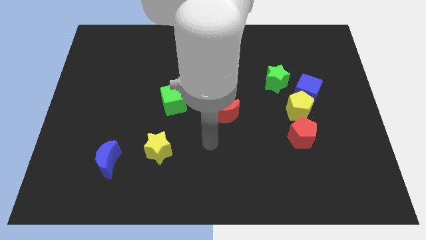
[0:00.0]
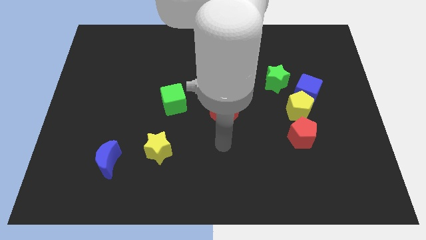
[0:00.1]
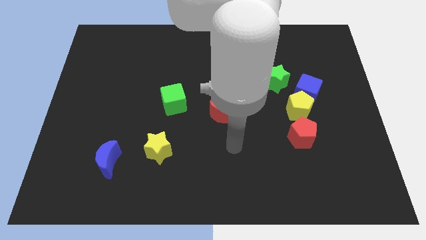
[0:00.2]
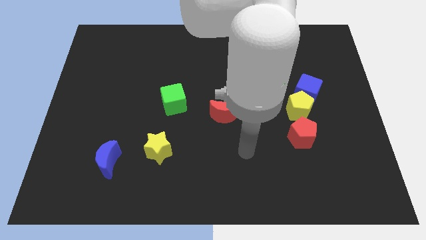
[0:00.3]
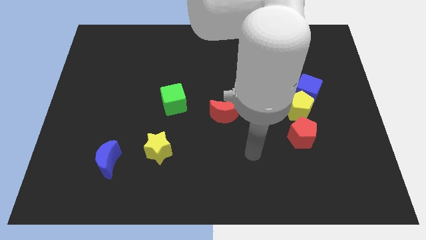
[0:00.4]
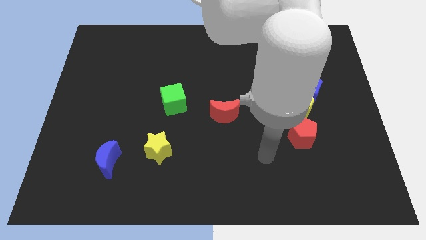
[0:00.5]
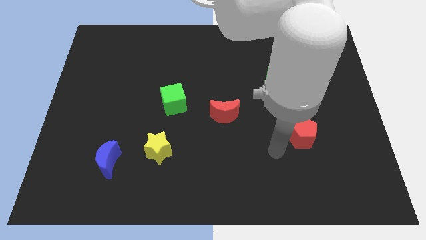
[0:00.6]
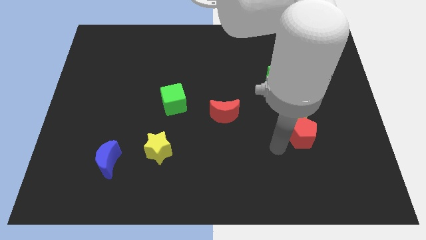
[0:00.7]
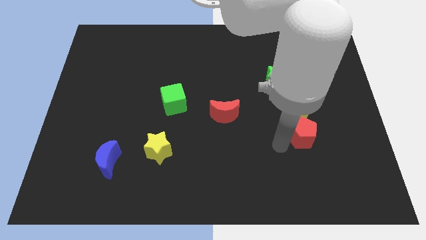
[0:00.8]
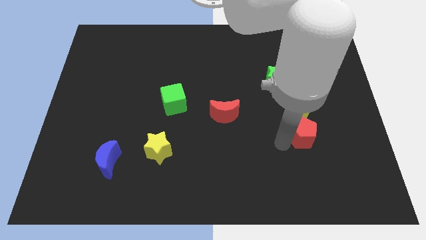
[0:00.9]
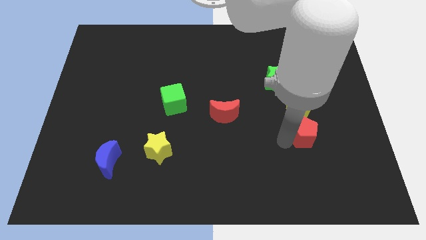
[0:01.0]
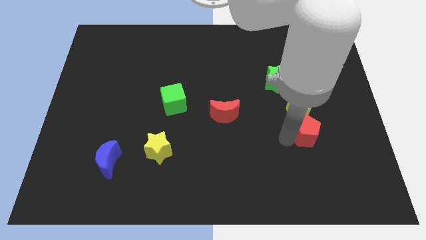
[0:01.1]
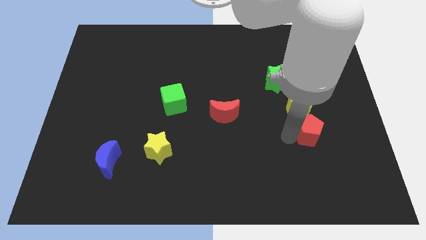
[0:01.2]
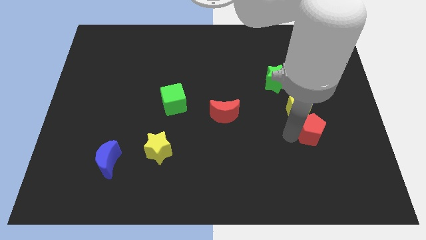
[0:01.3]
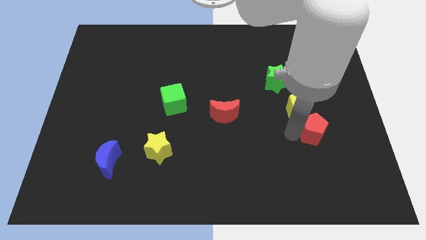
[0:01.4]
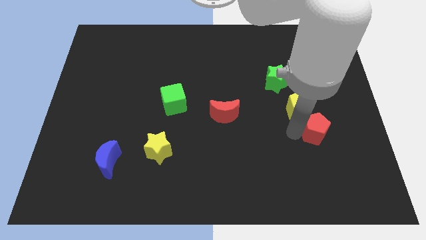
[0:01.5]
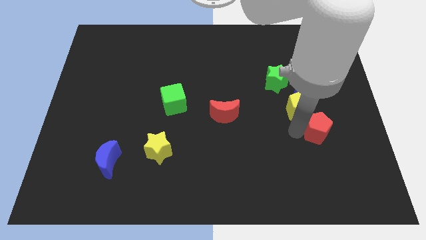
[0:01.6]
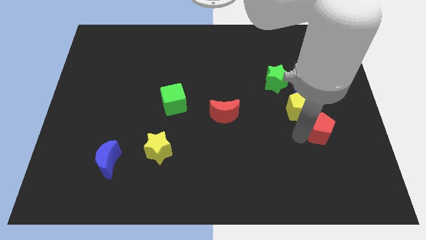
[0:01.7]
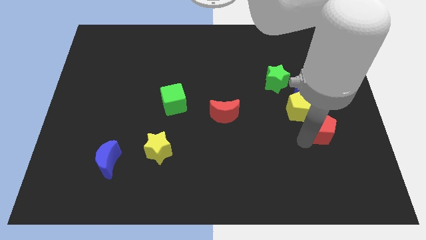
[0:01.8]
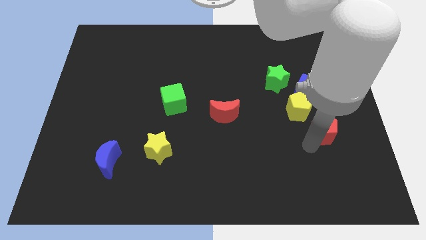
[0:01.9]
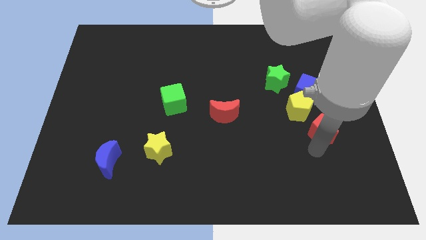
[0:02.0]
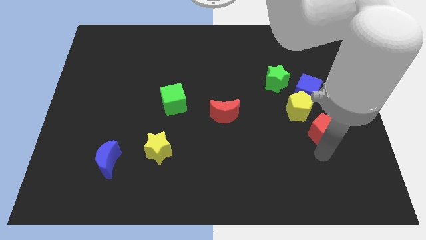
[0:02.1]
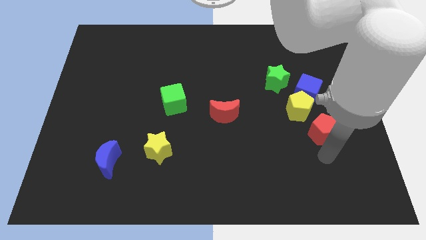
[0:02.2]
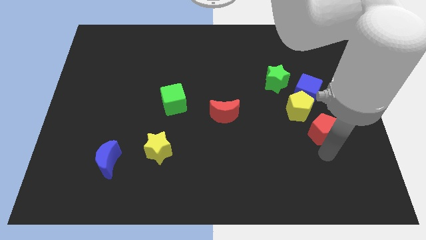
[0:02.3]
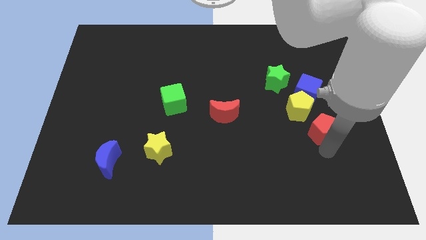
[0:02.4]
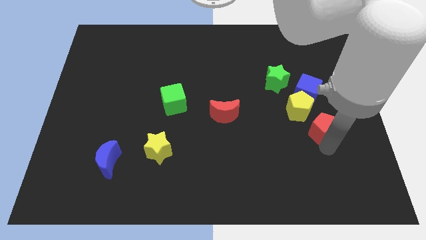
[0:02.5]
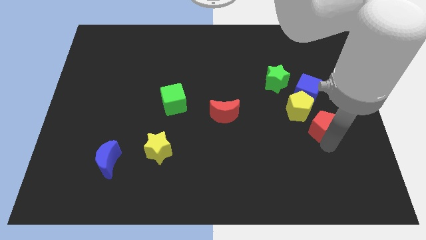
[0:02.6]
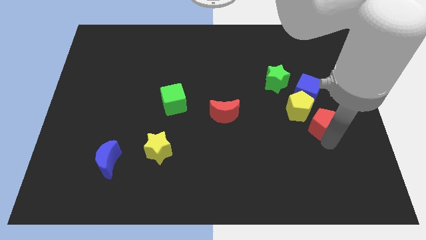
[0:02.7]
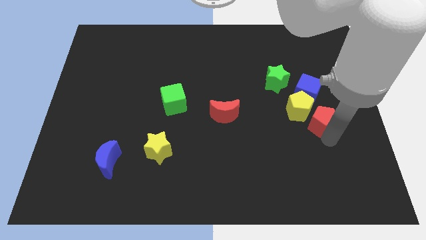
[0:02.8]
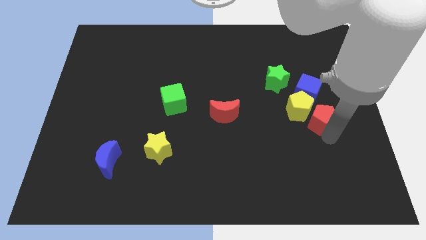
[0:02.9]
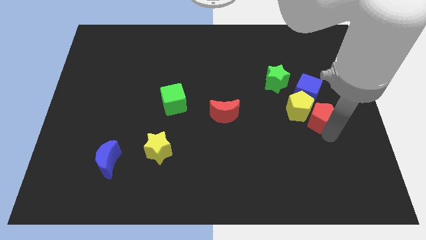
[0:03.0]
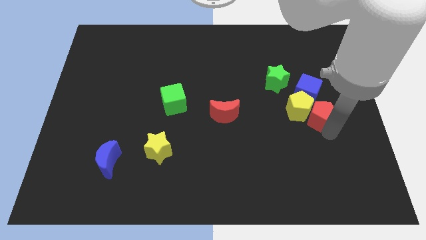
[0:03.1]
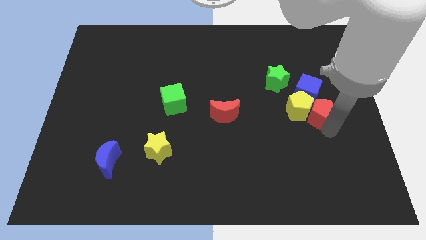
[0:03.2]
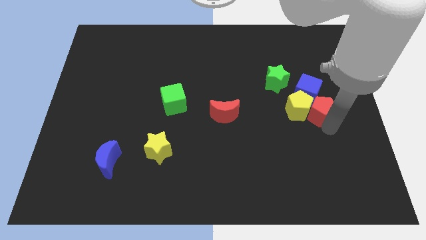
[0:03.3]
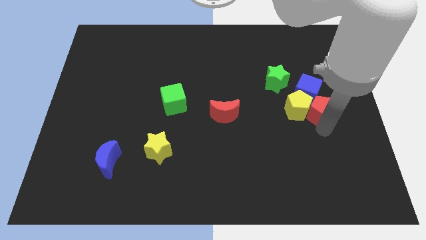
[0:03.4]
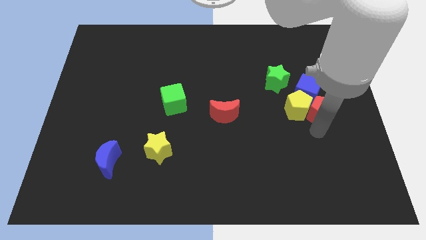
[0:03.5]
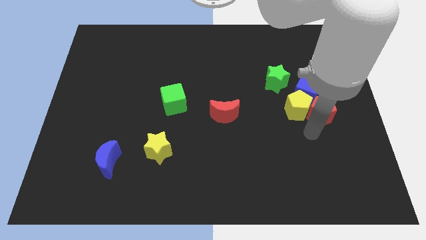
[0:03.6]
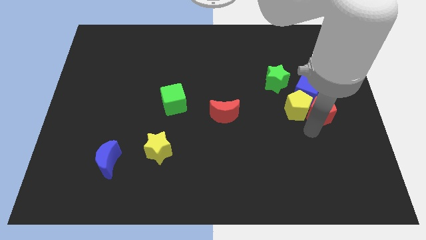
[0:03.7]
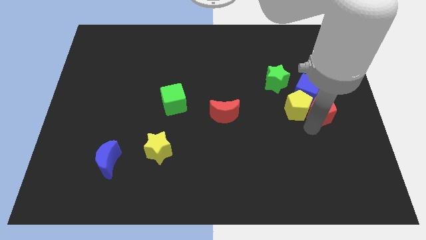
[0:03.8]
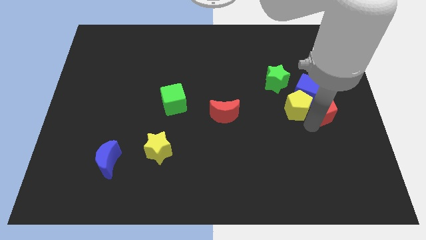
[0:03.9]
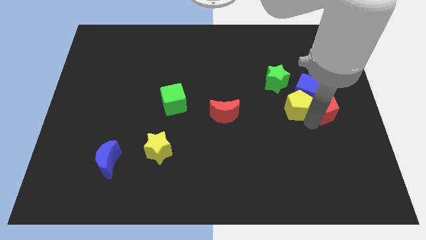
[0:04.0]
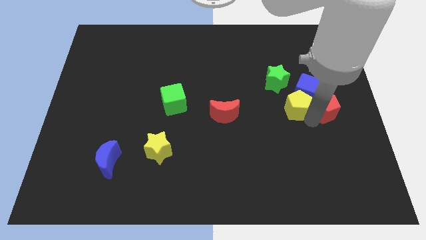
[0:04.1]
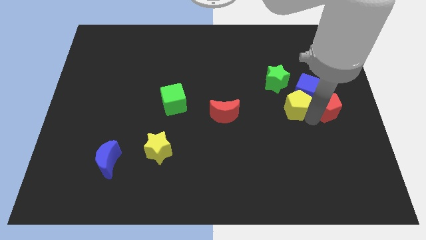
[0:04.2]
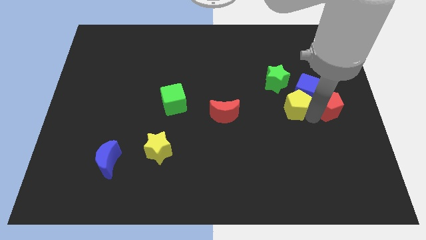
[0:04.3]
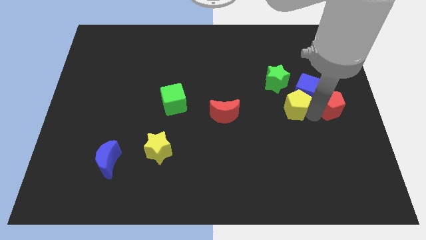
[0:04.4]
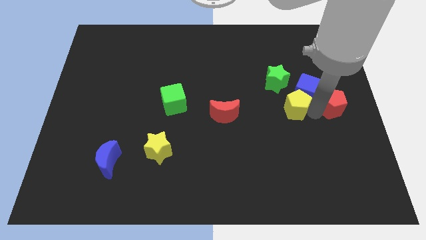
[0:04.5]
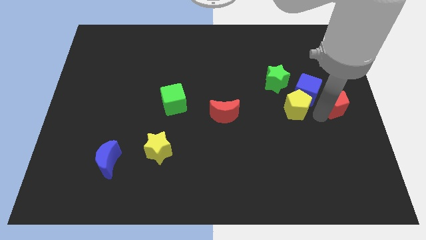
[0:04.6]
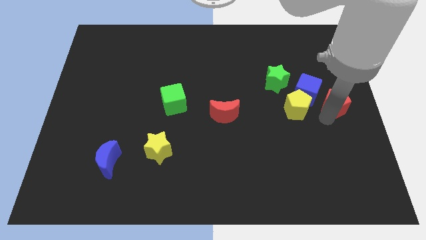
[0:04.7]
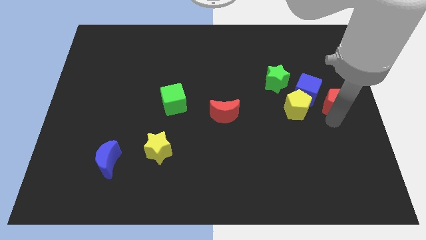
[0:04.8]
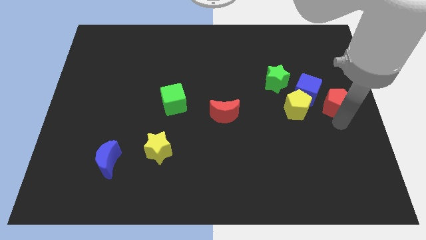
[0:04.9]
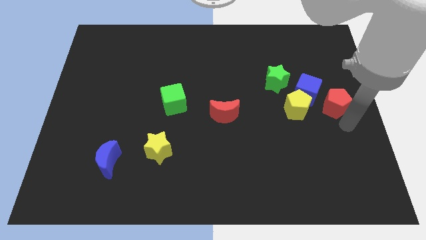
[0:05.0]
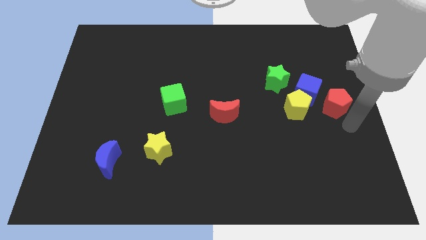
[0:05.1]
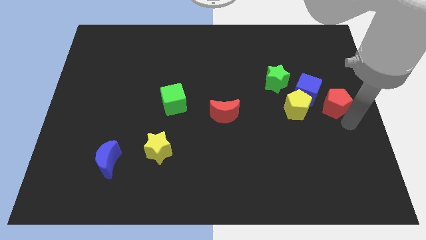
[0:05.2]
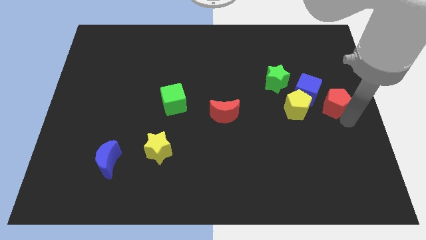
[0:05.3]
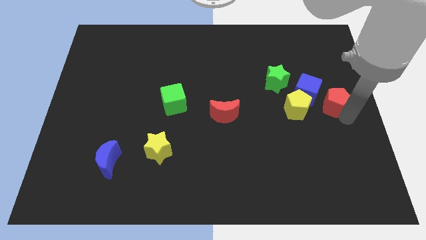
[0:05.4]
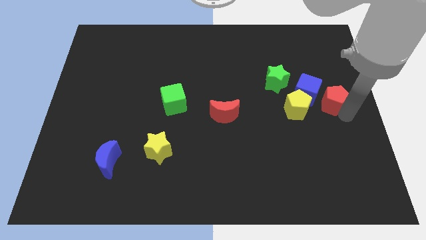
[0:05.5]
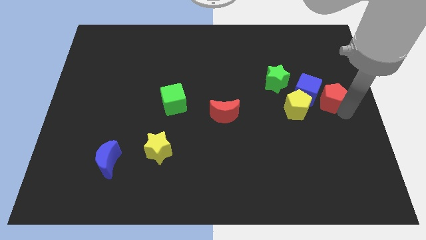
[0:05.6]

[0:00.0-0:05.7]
slide the red pentagon upwards a little

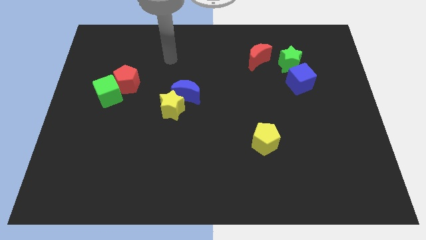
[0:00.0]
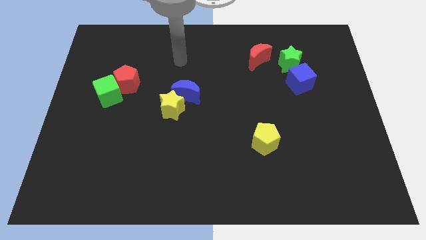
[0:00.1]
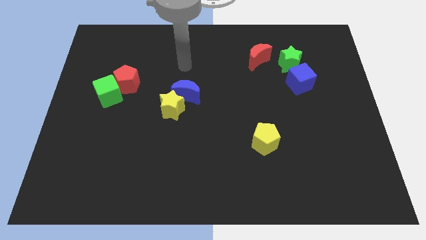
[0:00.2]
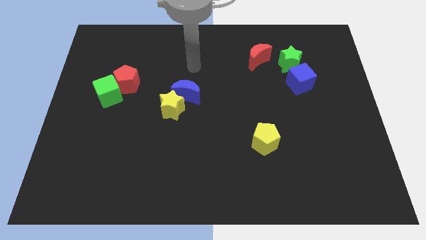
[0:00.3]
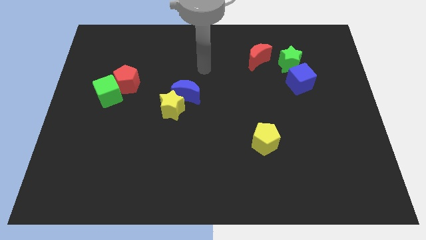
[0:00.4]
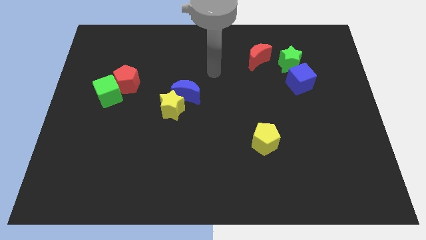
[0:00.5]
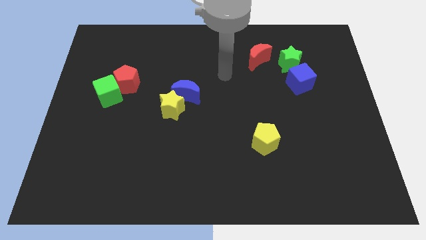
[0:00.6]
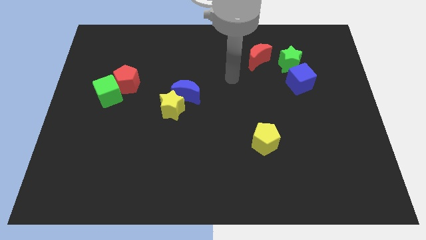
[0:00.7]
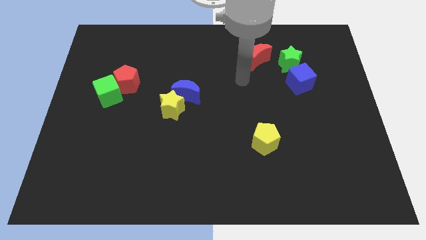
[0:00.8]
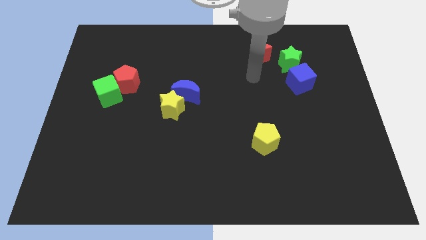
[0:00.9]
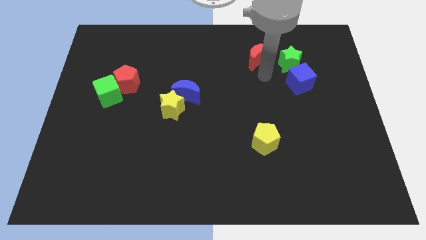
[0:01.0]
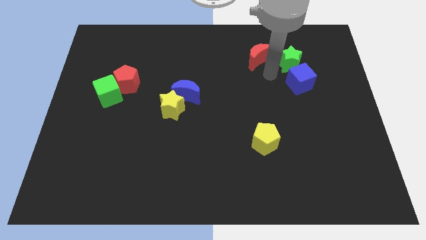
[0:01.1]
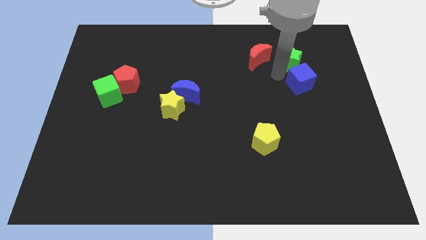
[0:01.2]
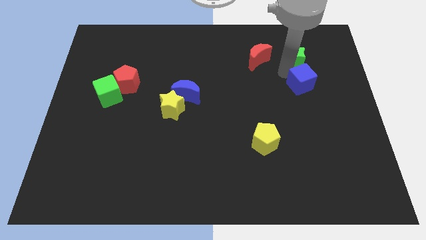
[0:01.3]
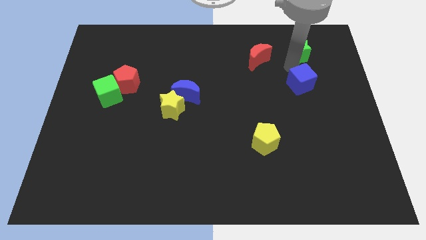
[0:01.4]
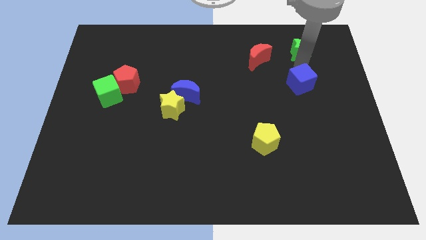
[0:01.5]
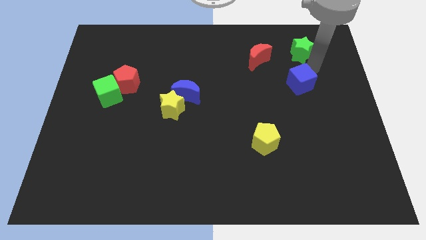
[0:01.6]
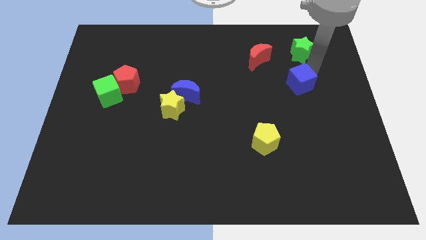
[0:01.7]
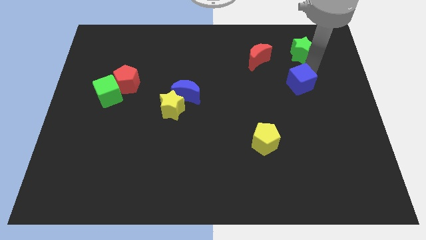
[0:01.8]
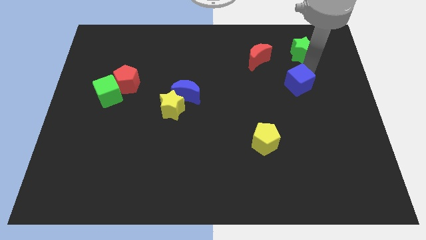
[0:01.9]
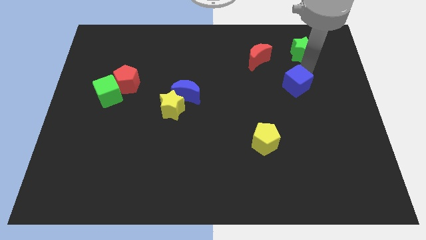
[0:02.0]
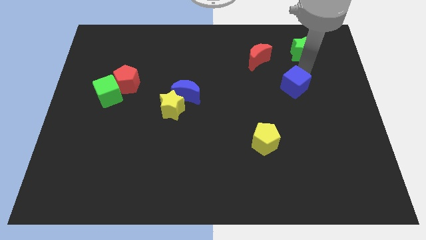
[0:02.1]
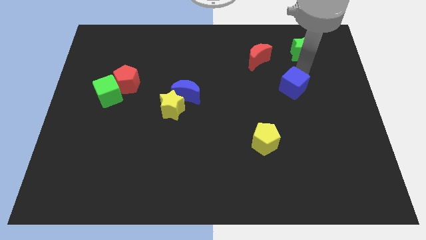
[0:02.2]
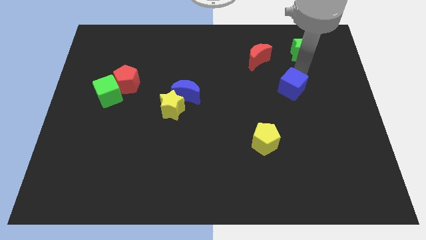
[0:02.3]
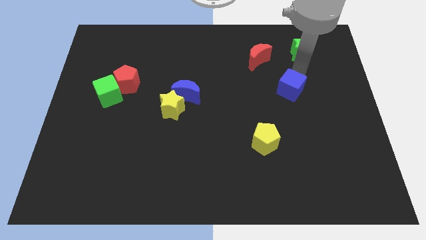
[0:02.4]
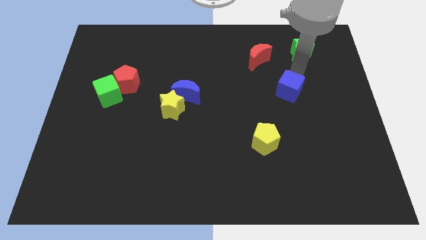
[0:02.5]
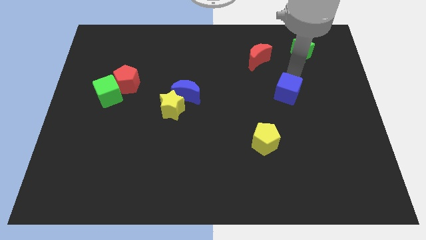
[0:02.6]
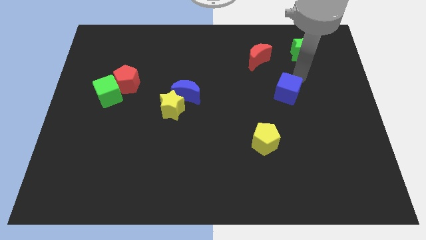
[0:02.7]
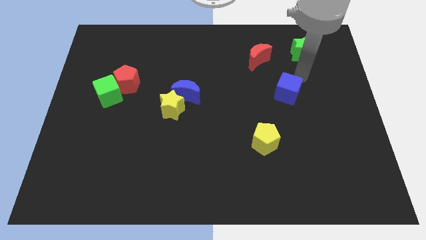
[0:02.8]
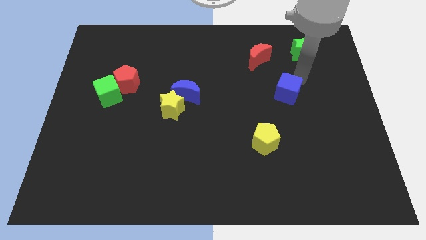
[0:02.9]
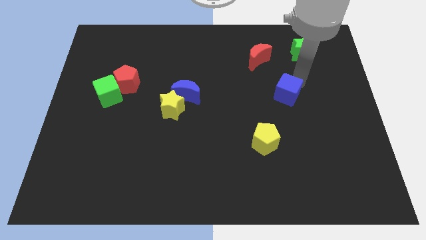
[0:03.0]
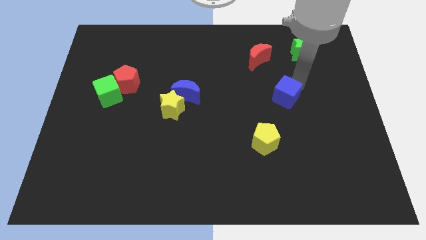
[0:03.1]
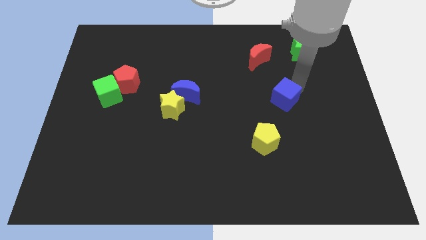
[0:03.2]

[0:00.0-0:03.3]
slide the blue cube slightly down and to the left diagonally
